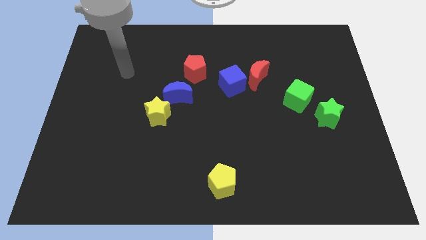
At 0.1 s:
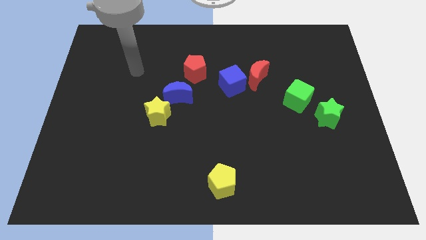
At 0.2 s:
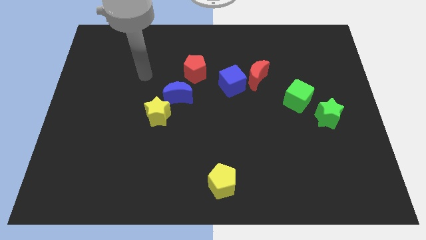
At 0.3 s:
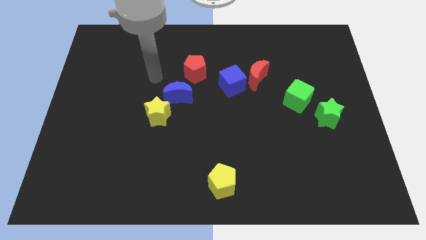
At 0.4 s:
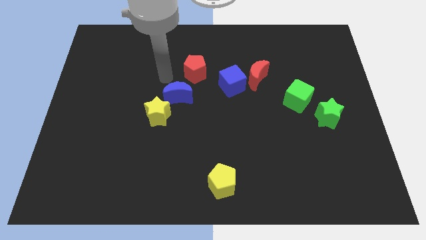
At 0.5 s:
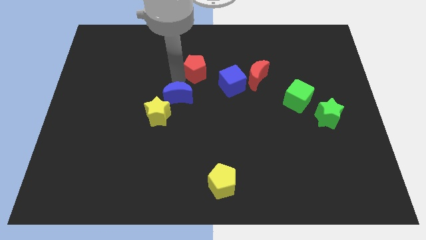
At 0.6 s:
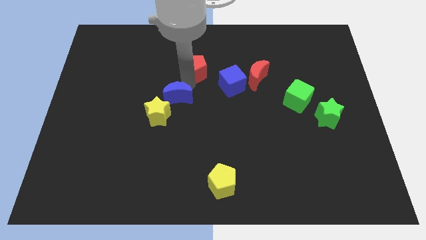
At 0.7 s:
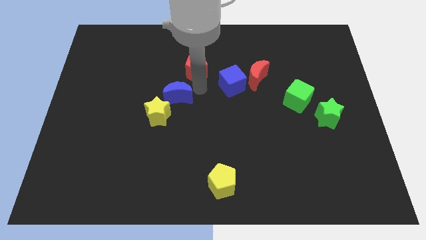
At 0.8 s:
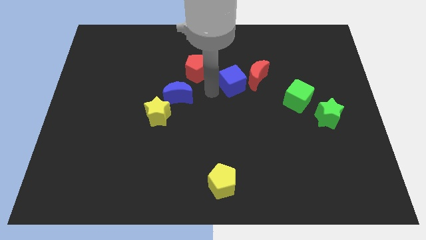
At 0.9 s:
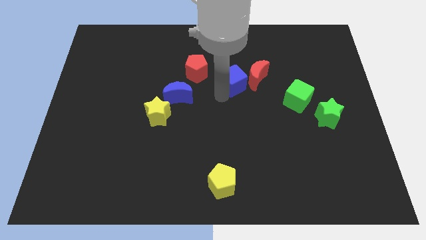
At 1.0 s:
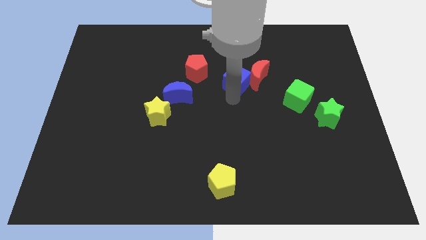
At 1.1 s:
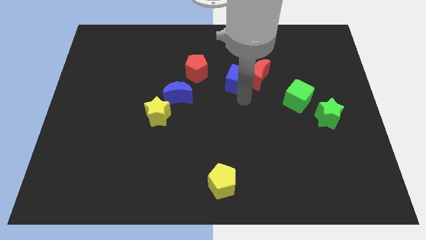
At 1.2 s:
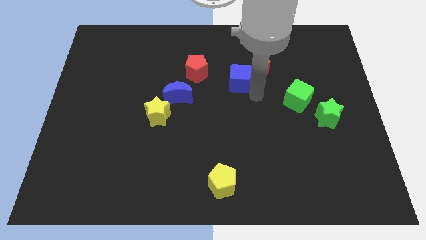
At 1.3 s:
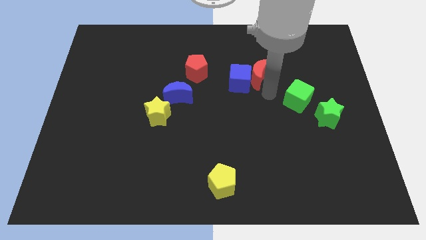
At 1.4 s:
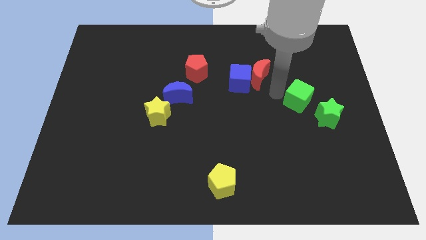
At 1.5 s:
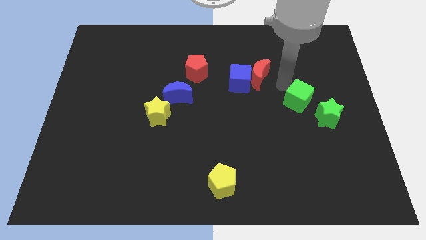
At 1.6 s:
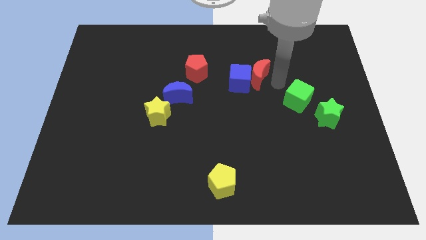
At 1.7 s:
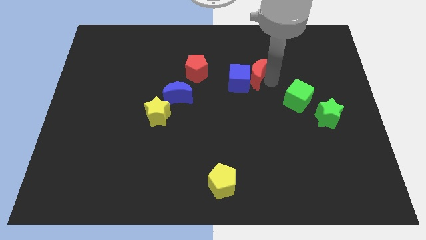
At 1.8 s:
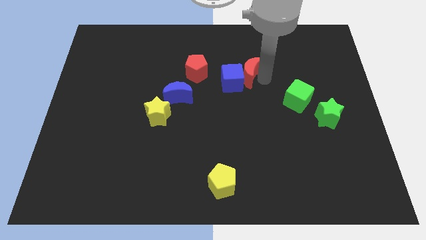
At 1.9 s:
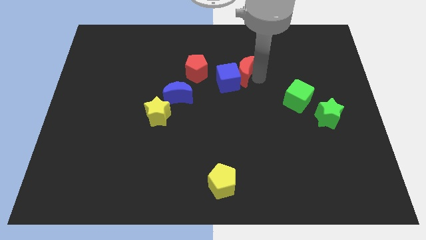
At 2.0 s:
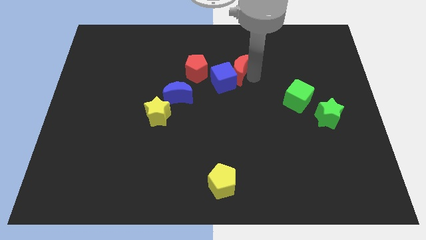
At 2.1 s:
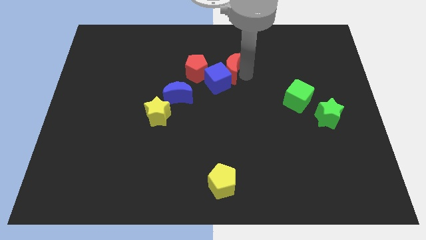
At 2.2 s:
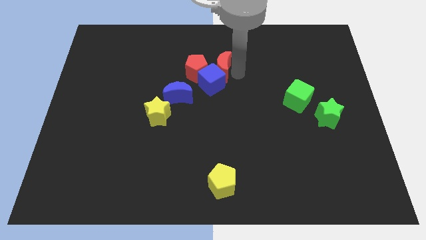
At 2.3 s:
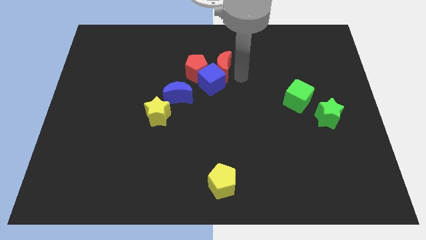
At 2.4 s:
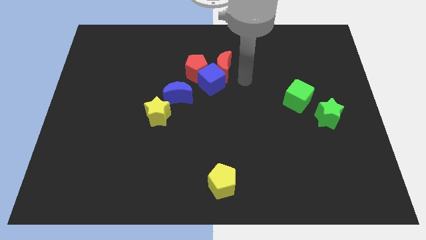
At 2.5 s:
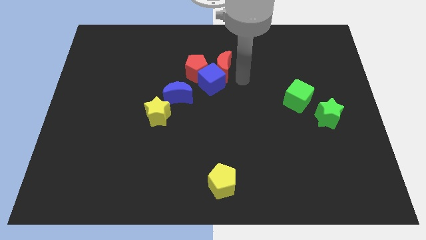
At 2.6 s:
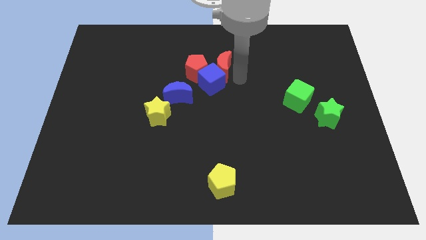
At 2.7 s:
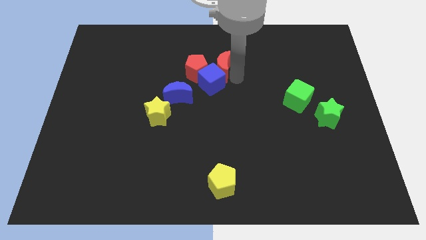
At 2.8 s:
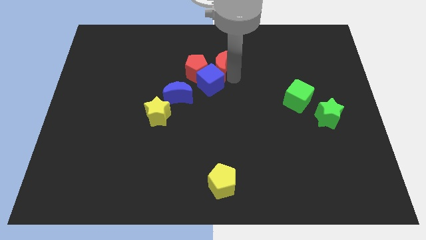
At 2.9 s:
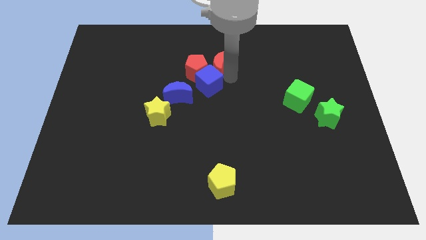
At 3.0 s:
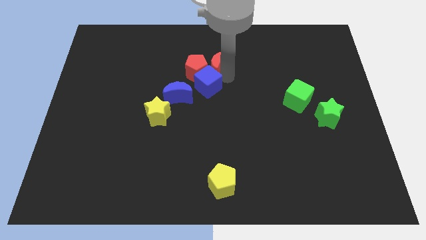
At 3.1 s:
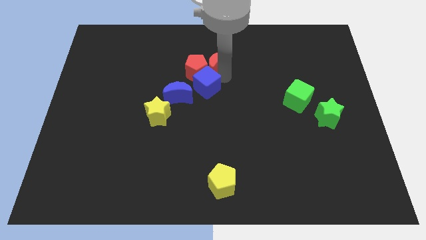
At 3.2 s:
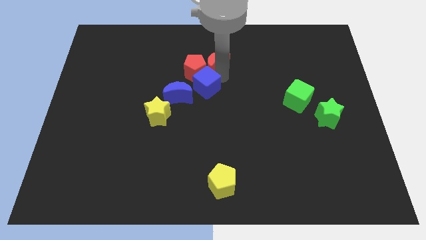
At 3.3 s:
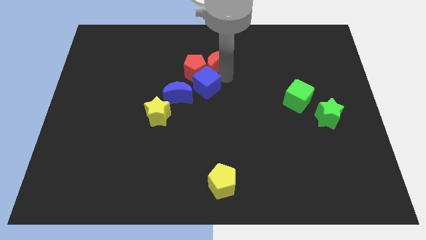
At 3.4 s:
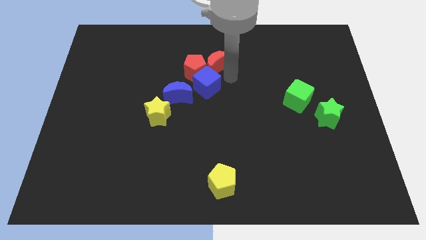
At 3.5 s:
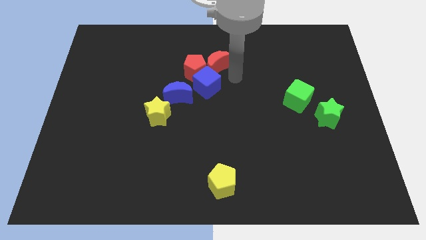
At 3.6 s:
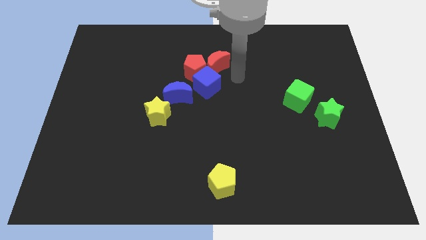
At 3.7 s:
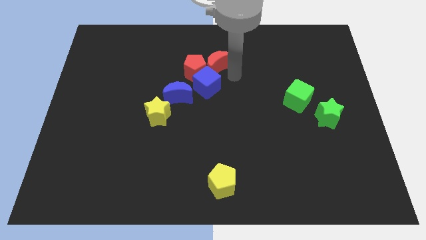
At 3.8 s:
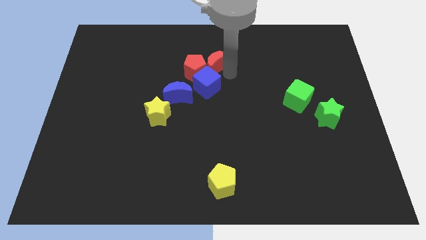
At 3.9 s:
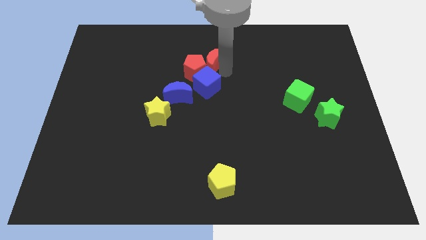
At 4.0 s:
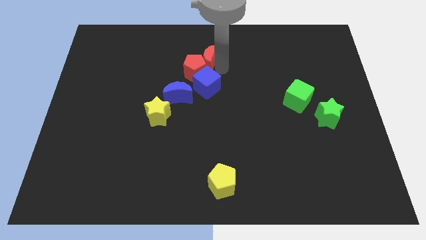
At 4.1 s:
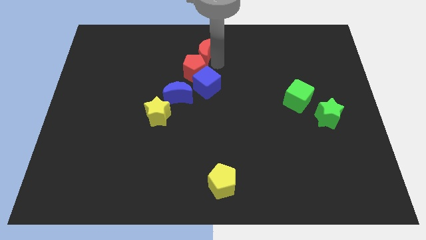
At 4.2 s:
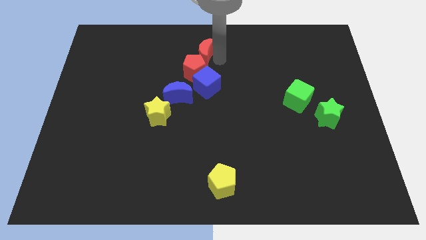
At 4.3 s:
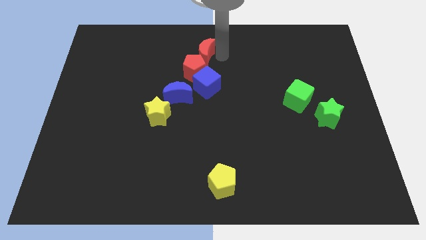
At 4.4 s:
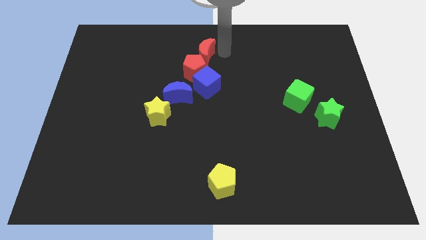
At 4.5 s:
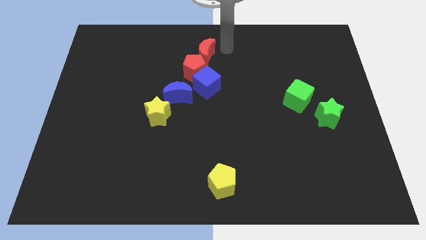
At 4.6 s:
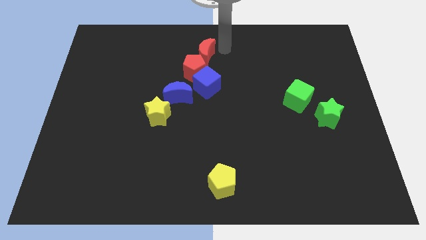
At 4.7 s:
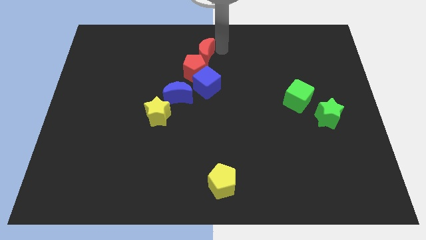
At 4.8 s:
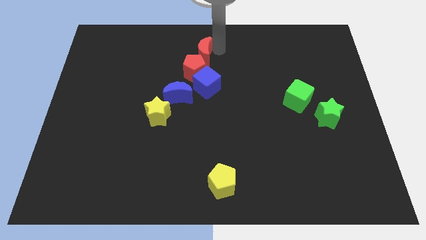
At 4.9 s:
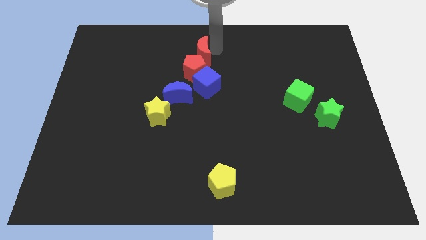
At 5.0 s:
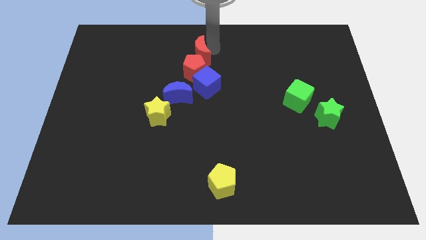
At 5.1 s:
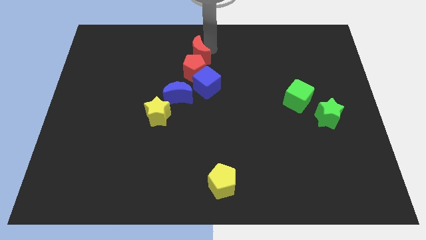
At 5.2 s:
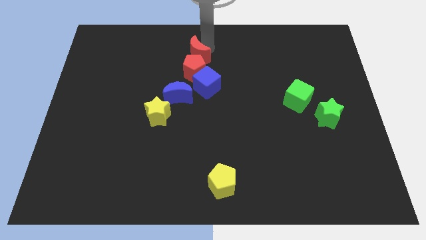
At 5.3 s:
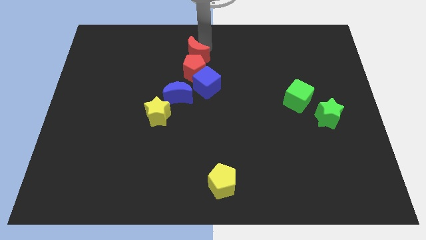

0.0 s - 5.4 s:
push the red moon to the top of the blue moon

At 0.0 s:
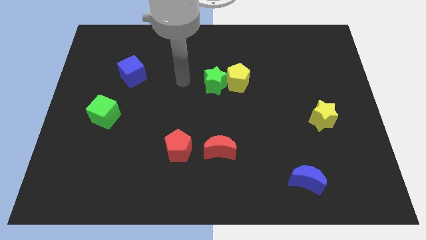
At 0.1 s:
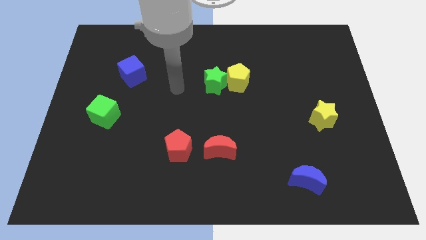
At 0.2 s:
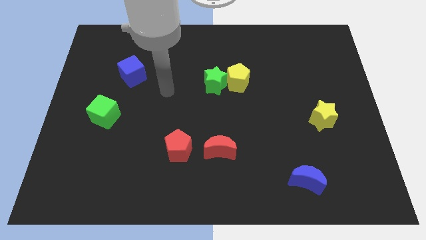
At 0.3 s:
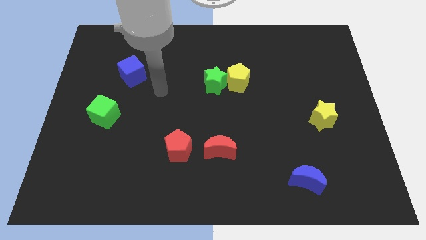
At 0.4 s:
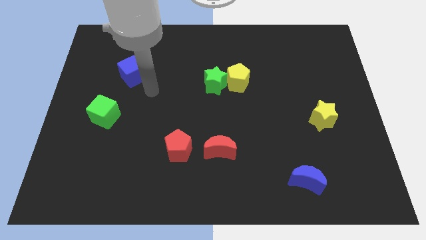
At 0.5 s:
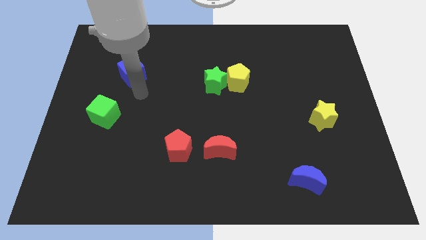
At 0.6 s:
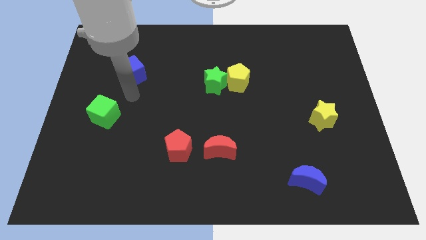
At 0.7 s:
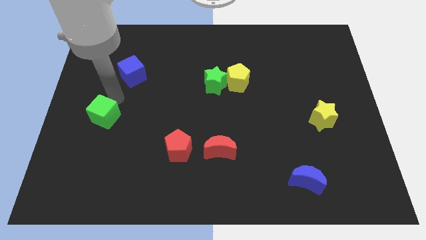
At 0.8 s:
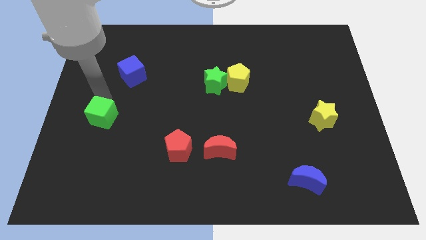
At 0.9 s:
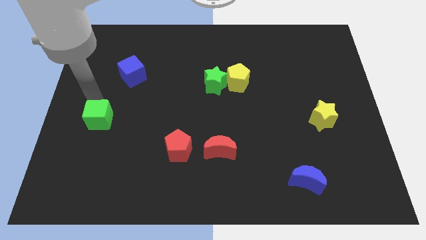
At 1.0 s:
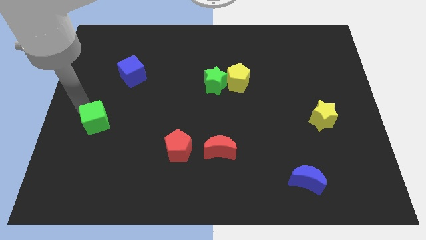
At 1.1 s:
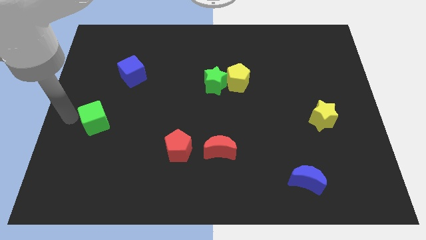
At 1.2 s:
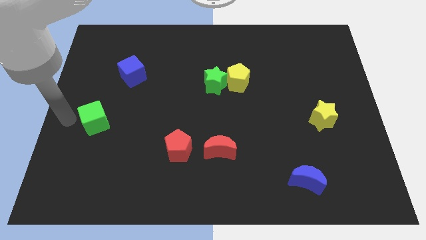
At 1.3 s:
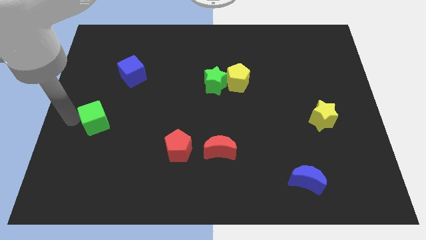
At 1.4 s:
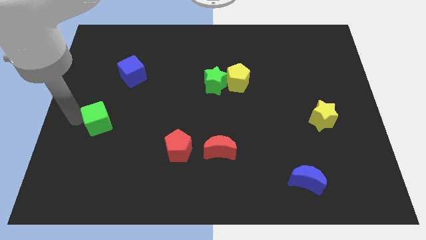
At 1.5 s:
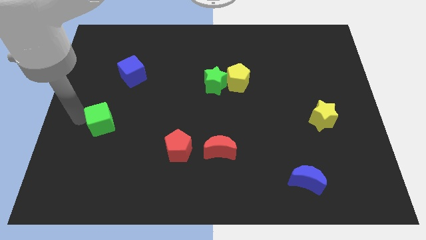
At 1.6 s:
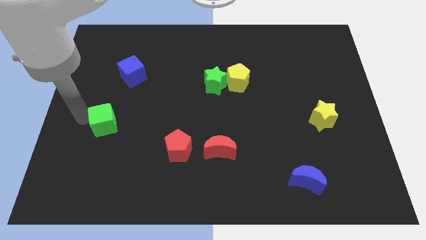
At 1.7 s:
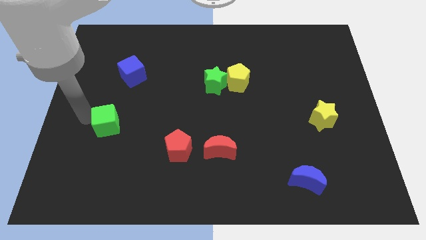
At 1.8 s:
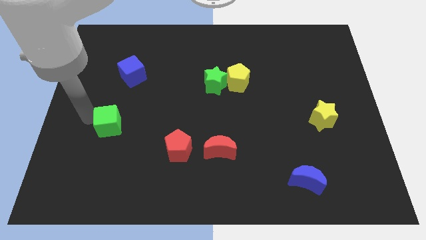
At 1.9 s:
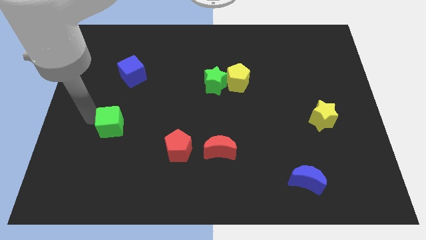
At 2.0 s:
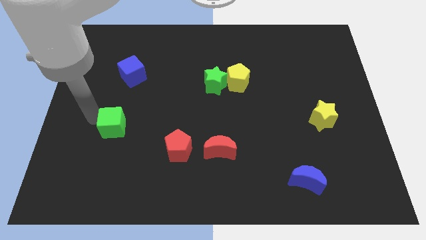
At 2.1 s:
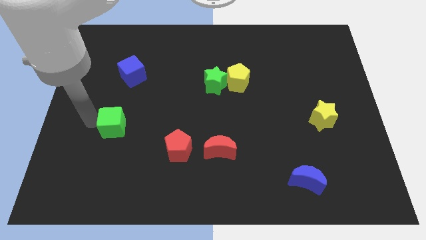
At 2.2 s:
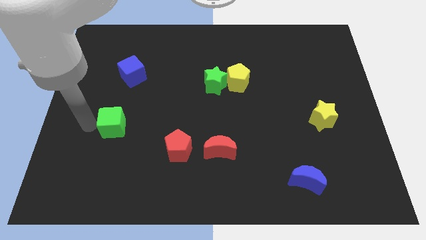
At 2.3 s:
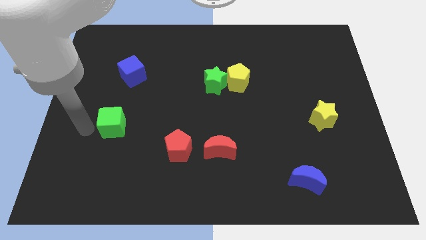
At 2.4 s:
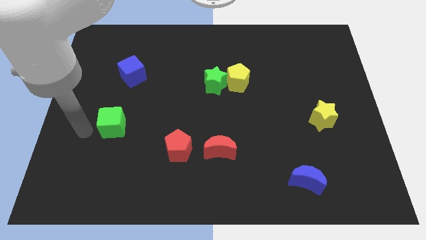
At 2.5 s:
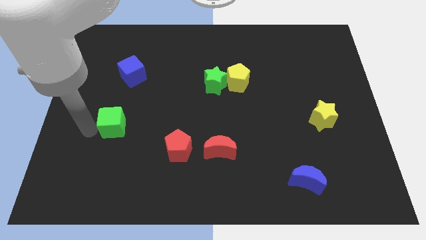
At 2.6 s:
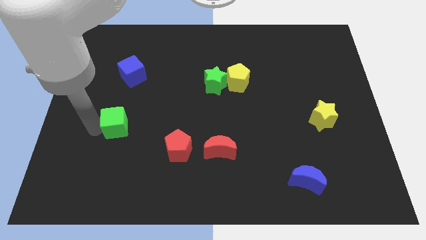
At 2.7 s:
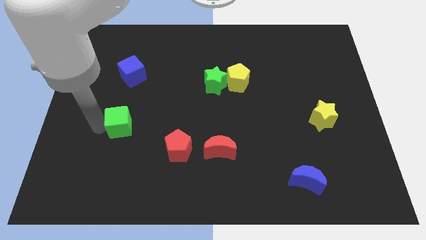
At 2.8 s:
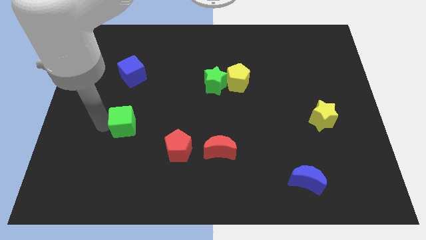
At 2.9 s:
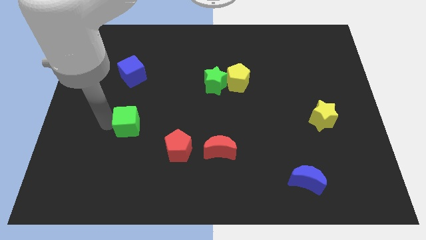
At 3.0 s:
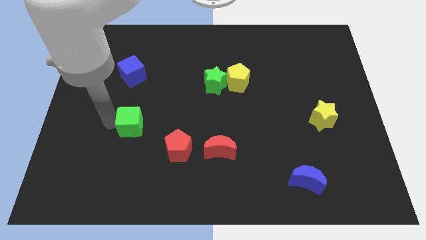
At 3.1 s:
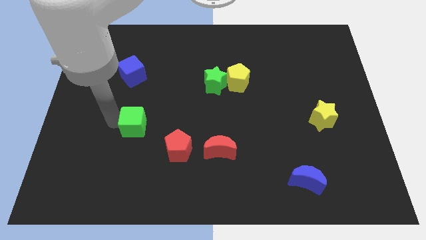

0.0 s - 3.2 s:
slide the green cube to the top left of the red pentagon
